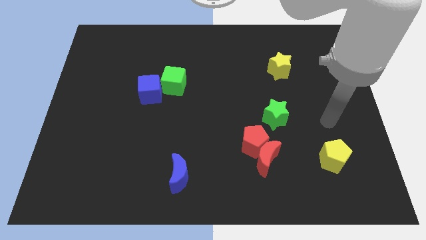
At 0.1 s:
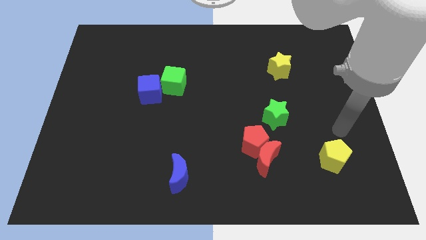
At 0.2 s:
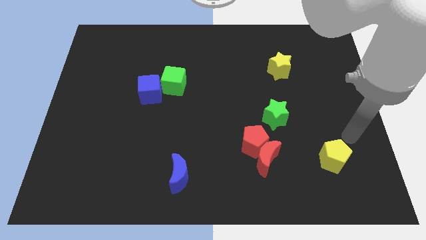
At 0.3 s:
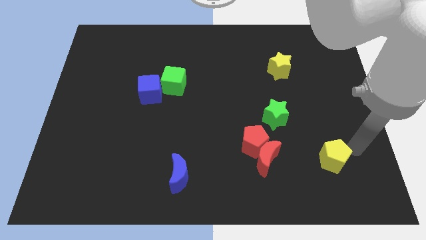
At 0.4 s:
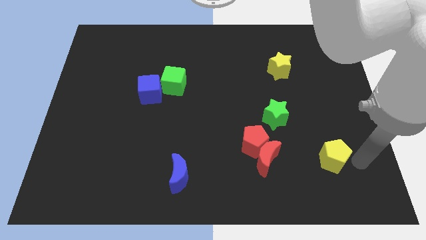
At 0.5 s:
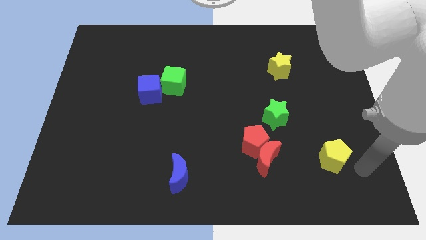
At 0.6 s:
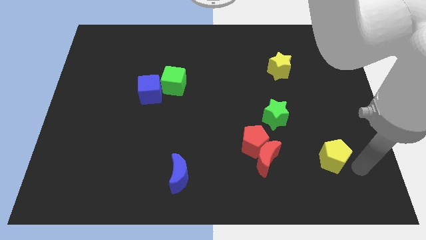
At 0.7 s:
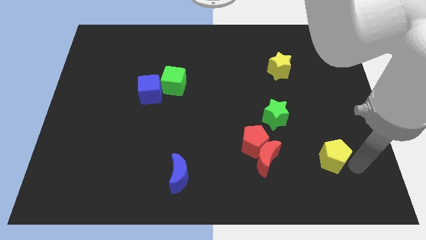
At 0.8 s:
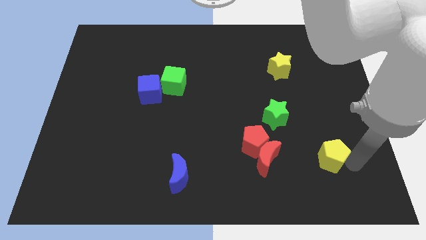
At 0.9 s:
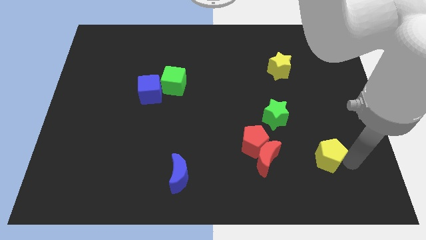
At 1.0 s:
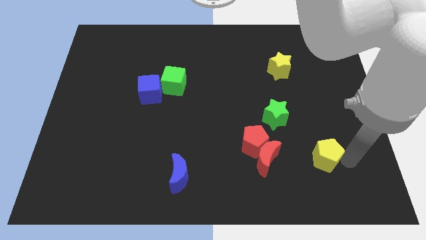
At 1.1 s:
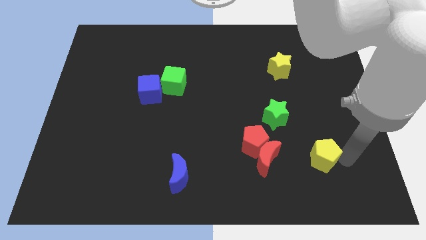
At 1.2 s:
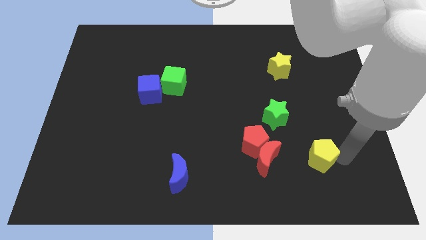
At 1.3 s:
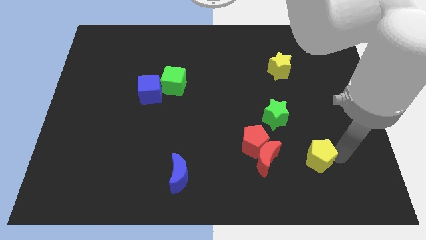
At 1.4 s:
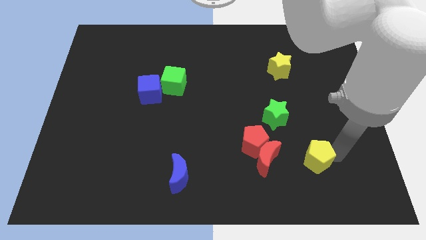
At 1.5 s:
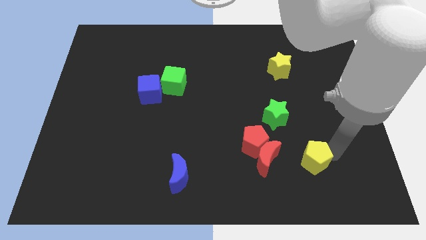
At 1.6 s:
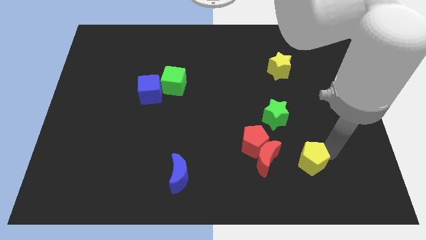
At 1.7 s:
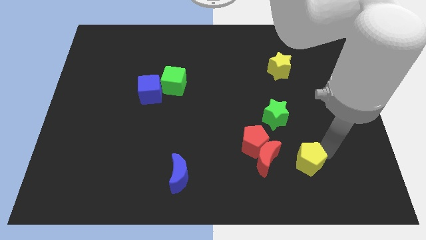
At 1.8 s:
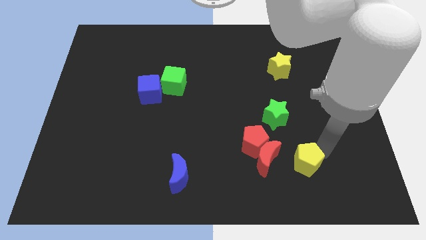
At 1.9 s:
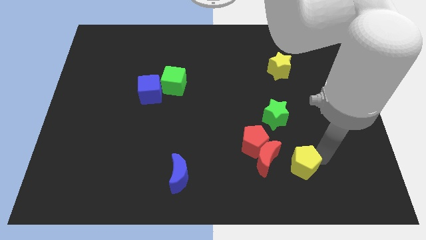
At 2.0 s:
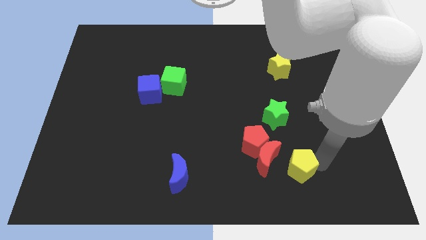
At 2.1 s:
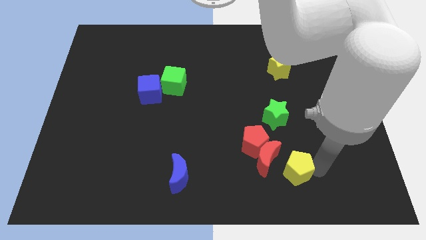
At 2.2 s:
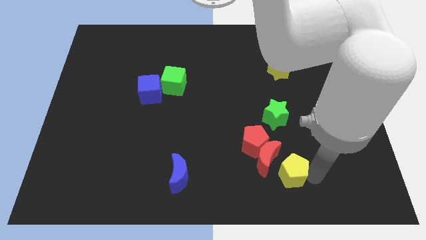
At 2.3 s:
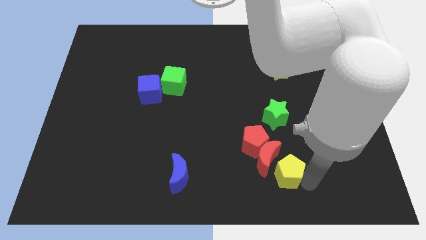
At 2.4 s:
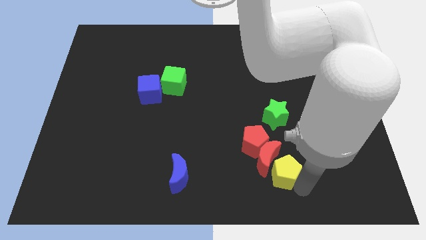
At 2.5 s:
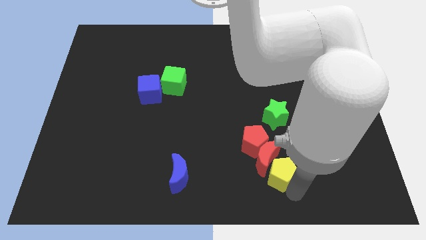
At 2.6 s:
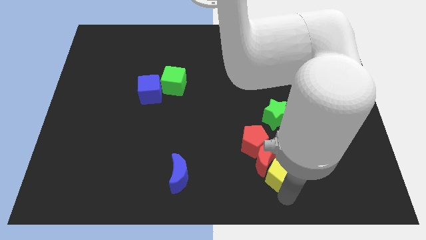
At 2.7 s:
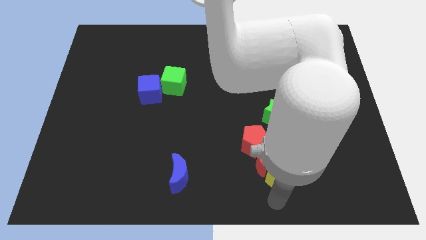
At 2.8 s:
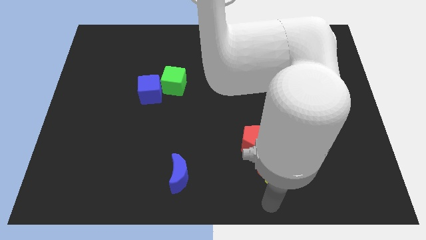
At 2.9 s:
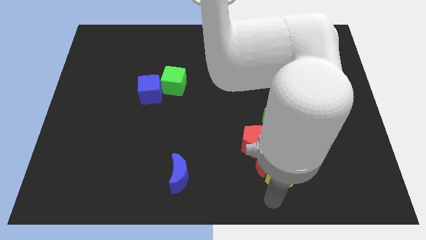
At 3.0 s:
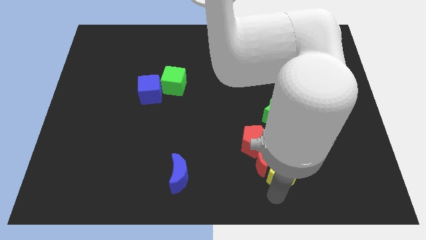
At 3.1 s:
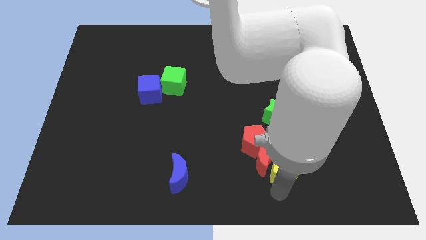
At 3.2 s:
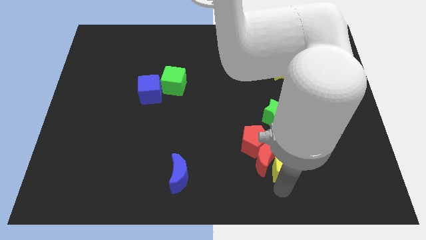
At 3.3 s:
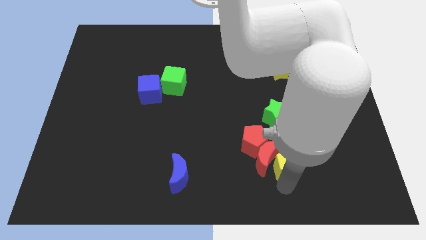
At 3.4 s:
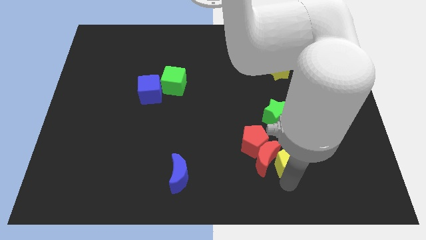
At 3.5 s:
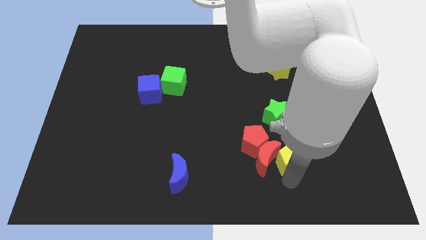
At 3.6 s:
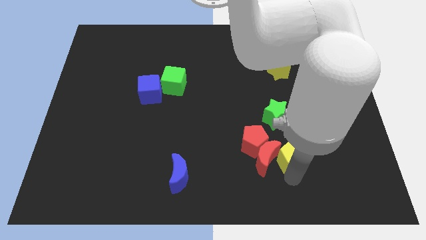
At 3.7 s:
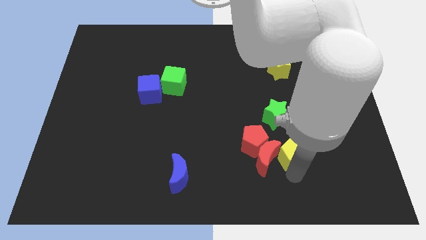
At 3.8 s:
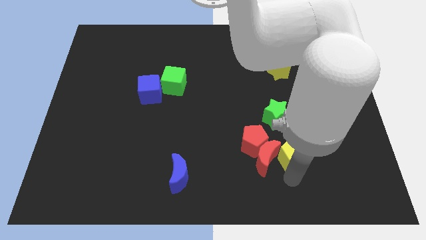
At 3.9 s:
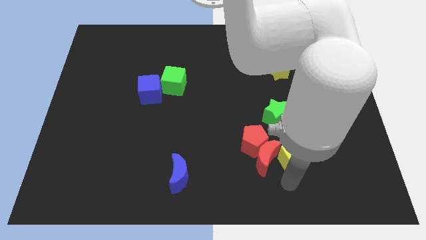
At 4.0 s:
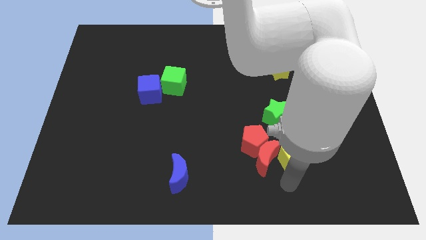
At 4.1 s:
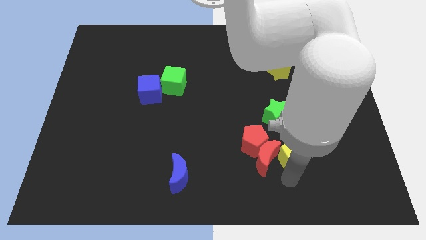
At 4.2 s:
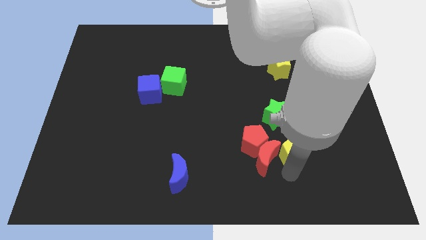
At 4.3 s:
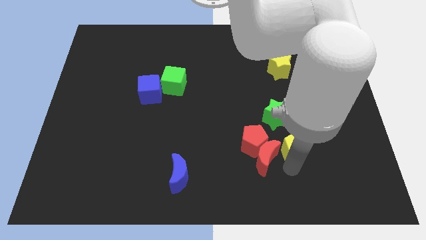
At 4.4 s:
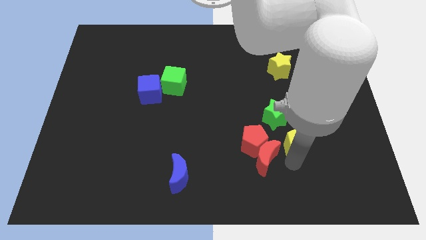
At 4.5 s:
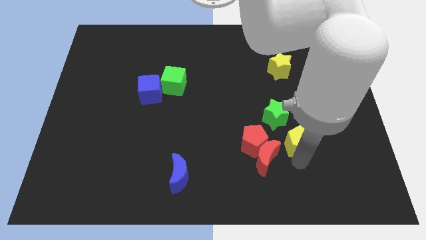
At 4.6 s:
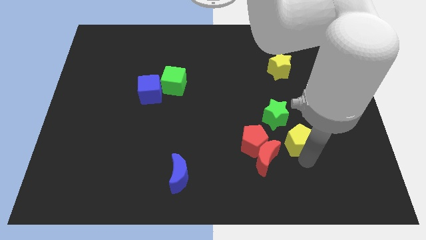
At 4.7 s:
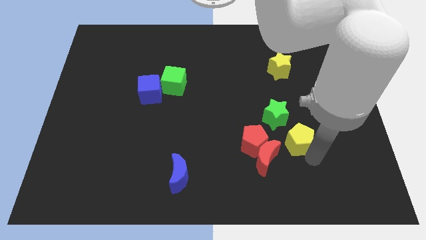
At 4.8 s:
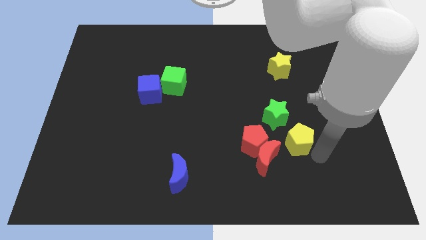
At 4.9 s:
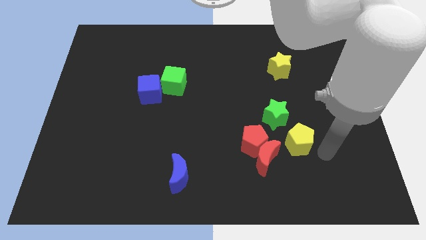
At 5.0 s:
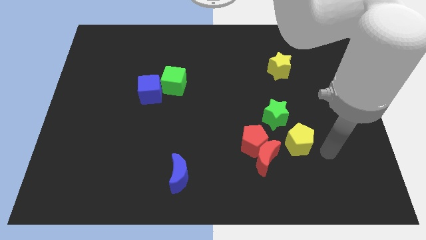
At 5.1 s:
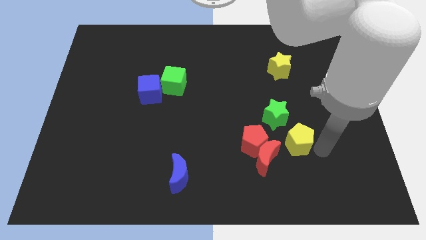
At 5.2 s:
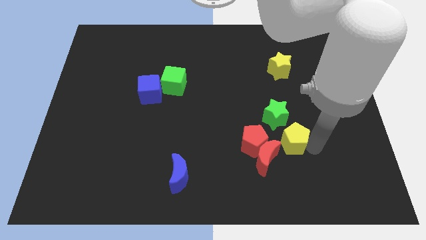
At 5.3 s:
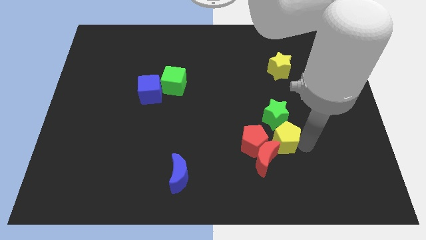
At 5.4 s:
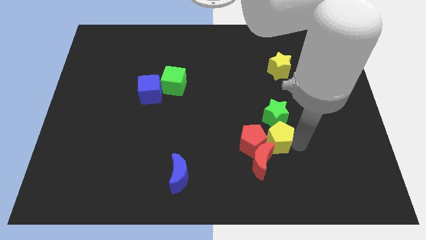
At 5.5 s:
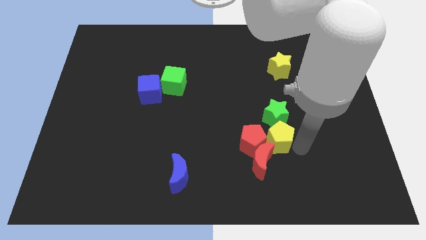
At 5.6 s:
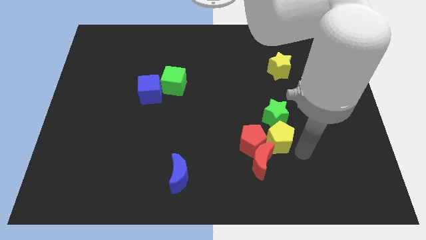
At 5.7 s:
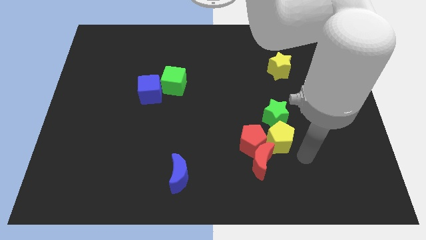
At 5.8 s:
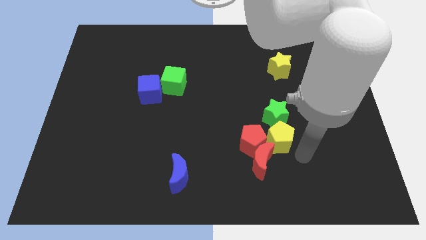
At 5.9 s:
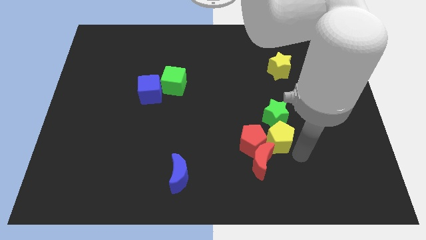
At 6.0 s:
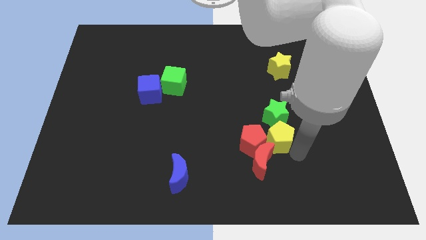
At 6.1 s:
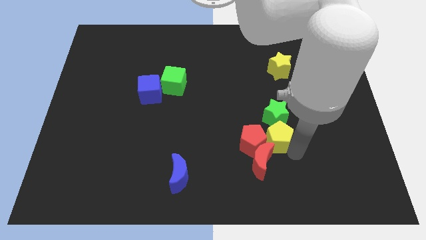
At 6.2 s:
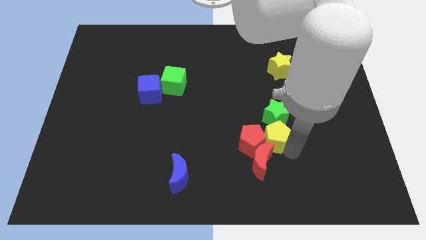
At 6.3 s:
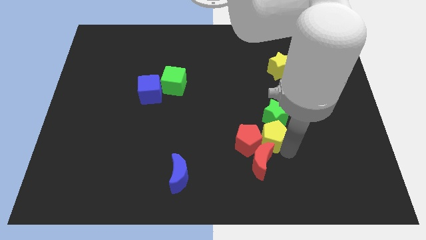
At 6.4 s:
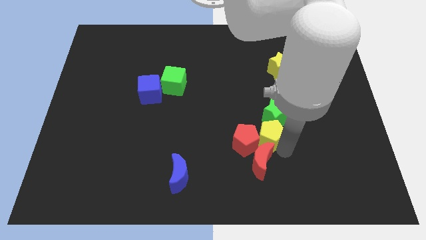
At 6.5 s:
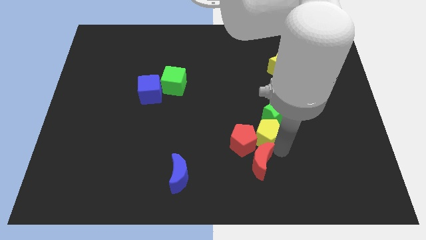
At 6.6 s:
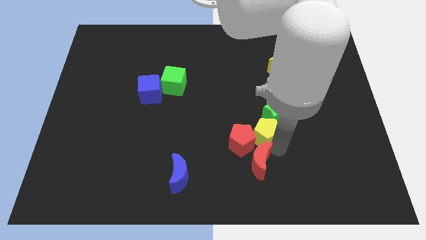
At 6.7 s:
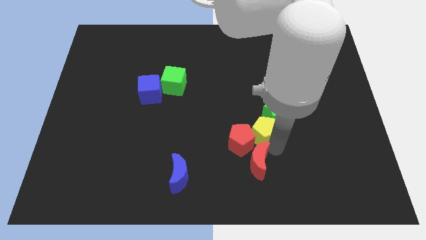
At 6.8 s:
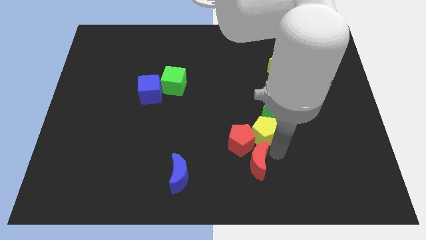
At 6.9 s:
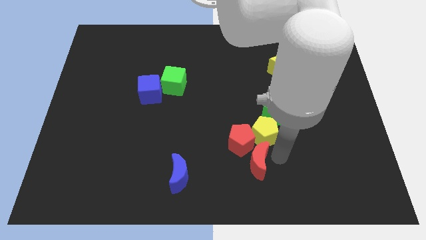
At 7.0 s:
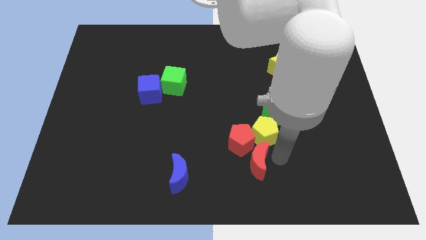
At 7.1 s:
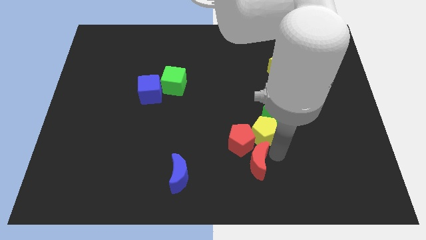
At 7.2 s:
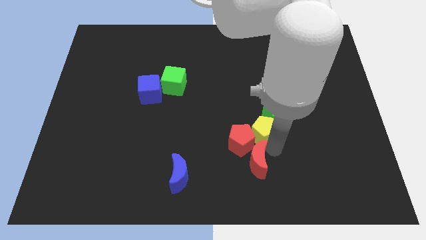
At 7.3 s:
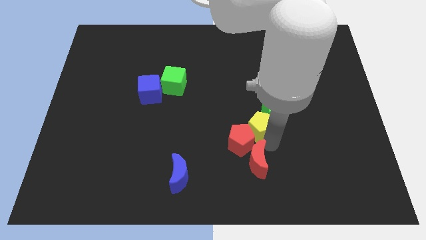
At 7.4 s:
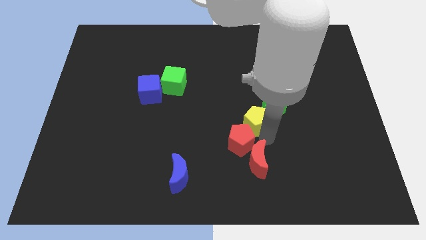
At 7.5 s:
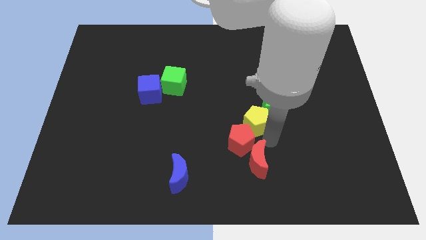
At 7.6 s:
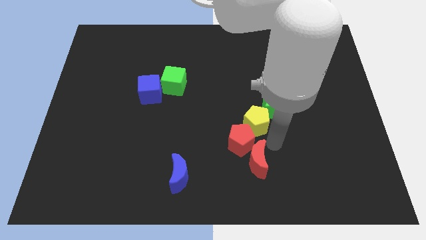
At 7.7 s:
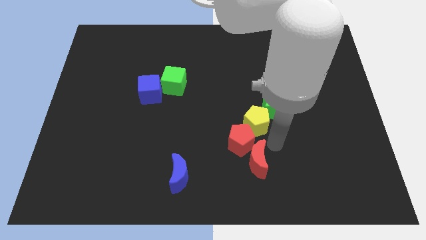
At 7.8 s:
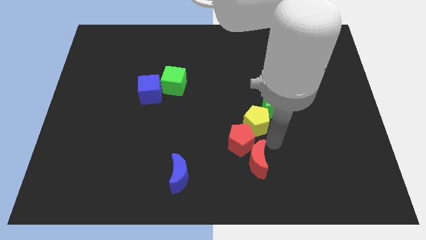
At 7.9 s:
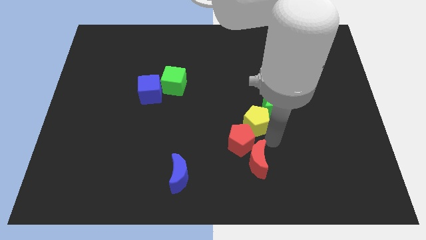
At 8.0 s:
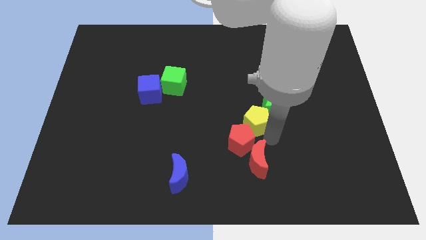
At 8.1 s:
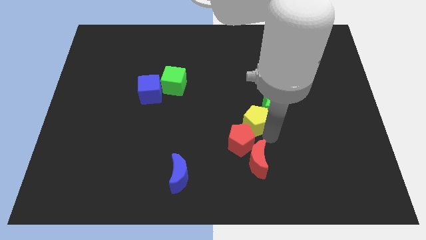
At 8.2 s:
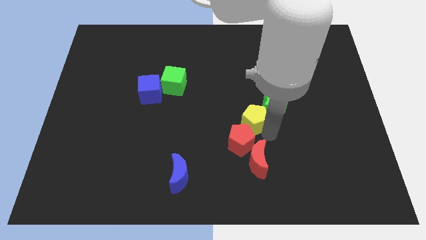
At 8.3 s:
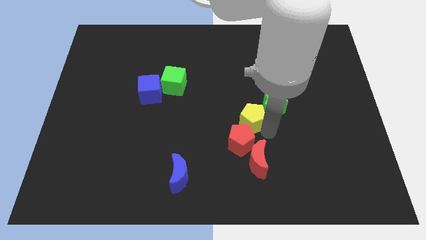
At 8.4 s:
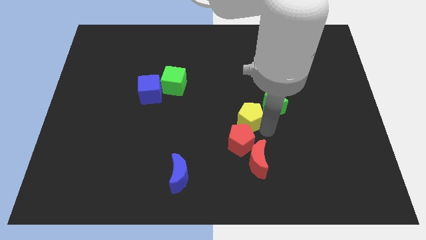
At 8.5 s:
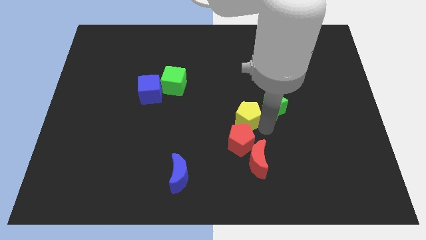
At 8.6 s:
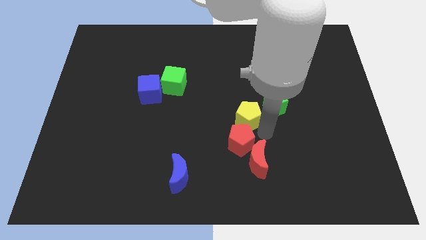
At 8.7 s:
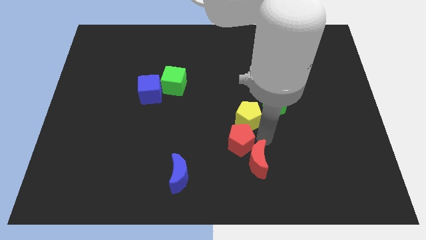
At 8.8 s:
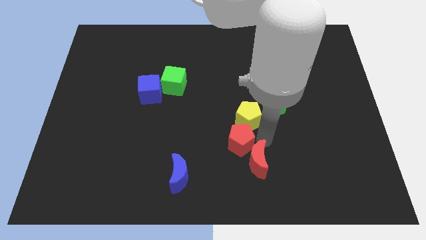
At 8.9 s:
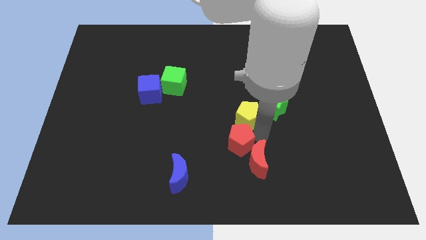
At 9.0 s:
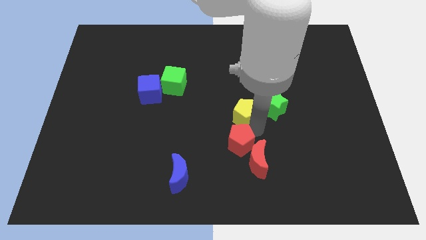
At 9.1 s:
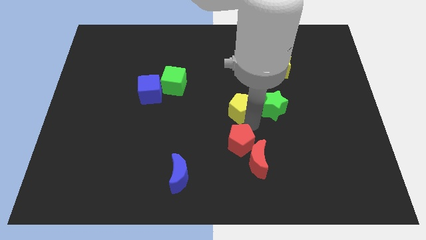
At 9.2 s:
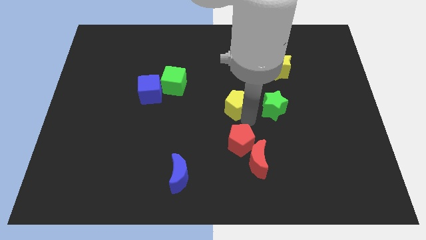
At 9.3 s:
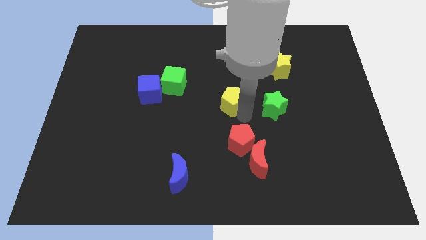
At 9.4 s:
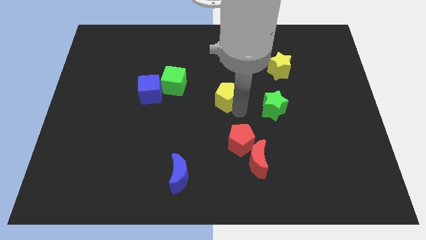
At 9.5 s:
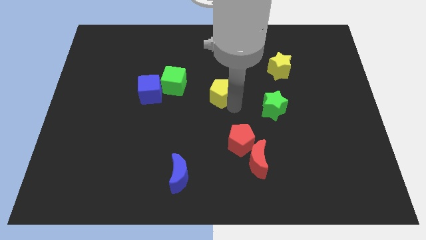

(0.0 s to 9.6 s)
push the yellow pentagon to the right side of the green cube
